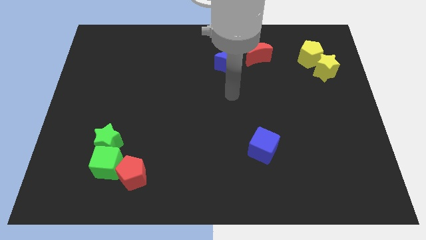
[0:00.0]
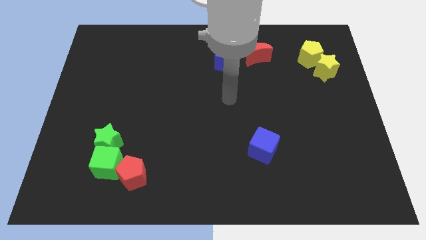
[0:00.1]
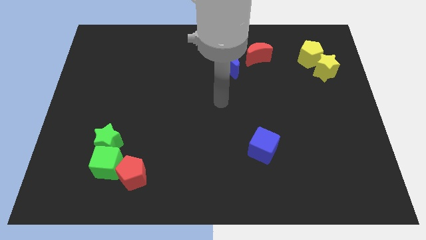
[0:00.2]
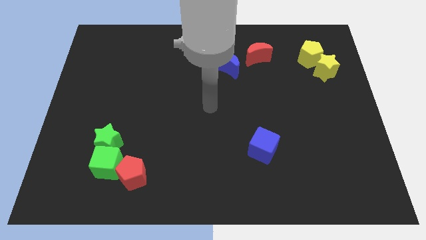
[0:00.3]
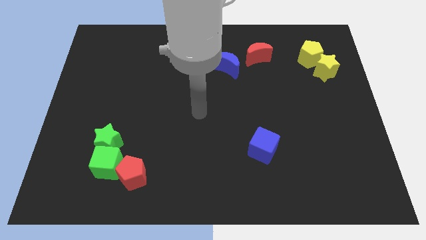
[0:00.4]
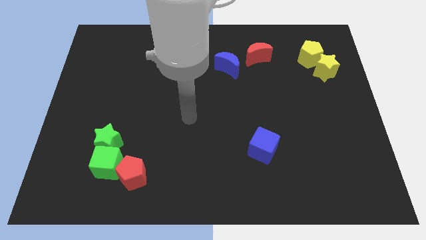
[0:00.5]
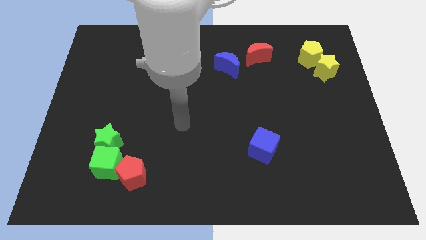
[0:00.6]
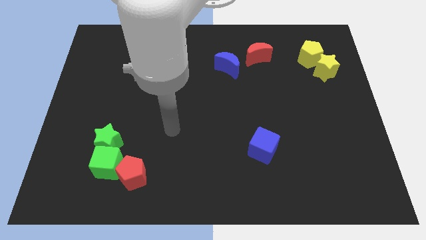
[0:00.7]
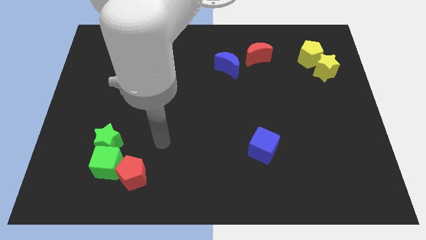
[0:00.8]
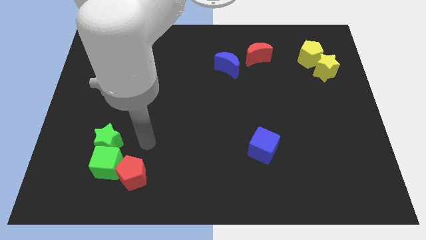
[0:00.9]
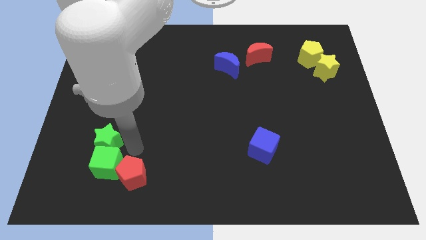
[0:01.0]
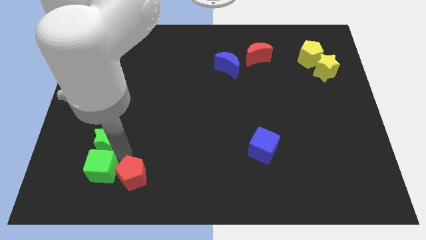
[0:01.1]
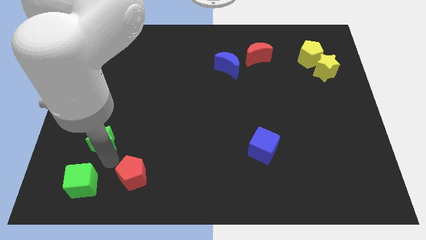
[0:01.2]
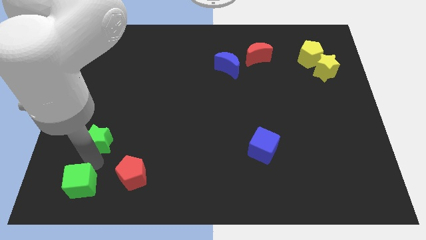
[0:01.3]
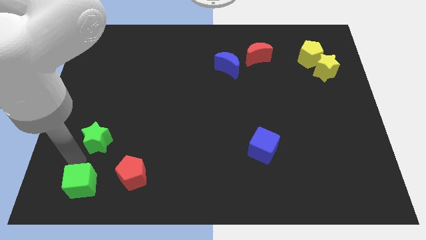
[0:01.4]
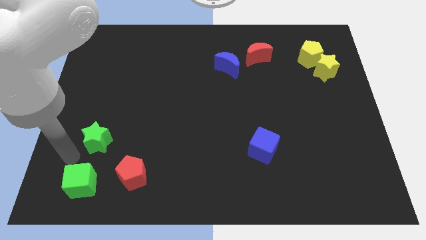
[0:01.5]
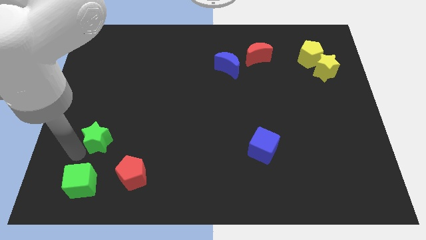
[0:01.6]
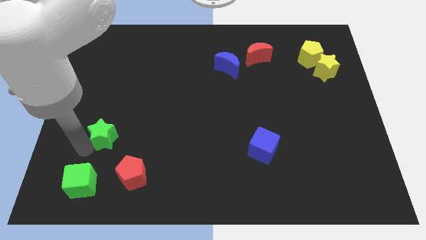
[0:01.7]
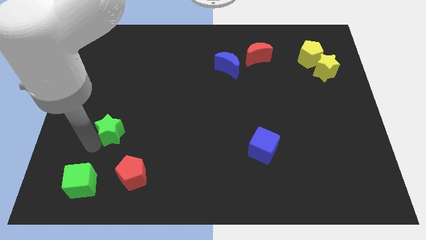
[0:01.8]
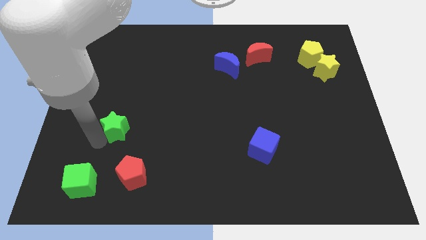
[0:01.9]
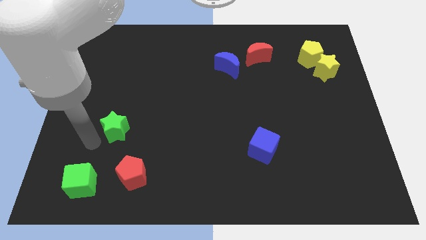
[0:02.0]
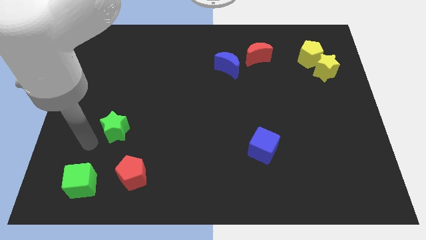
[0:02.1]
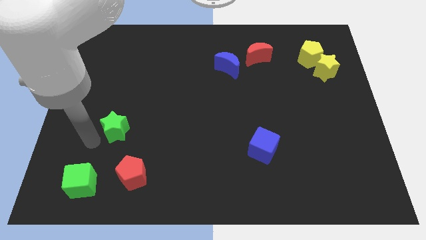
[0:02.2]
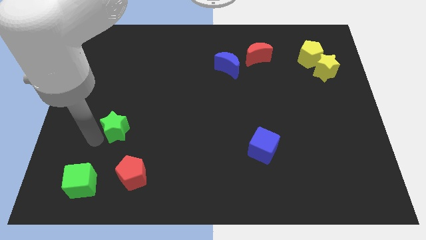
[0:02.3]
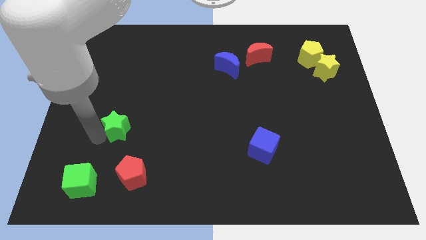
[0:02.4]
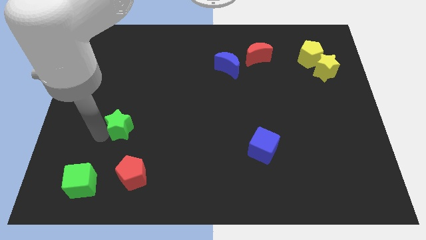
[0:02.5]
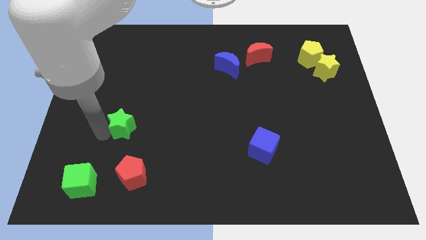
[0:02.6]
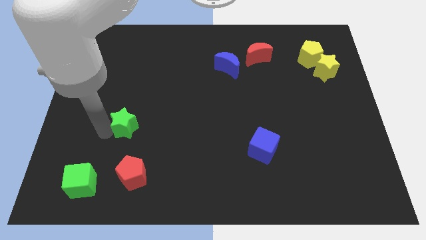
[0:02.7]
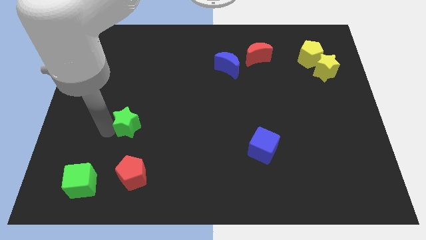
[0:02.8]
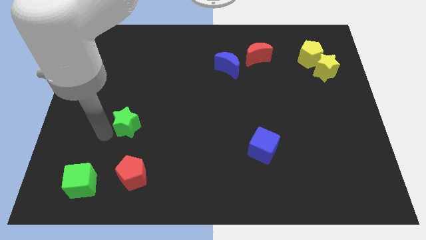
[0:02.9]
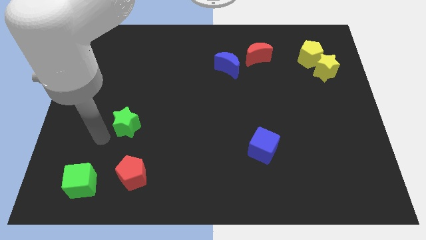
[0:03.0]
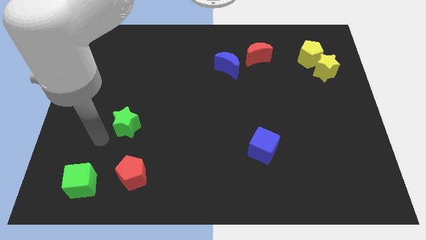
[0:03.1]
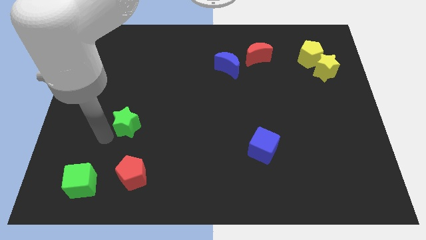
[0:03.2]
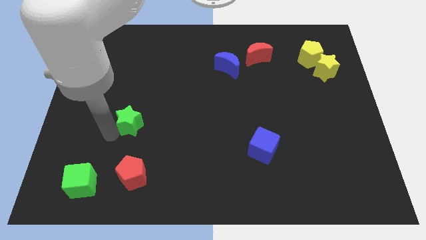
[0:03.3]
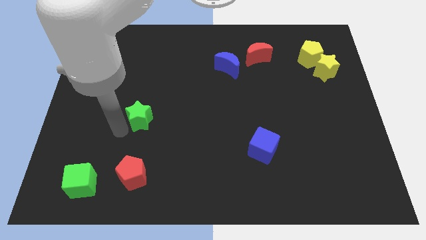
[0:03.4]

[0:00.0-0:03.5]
slide the green star diagonally upwards and right a little

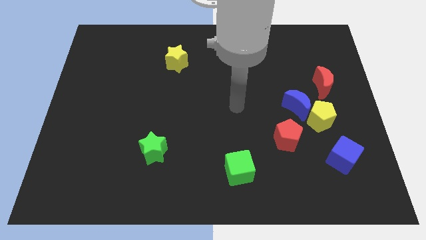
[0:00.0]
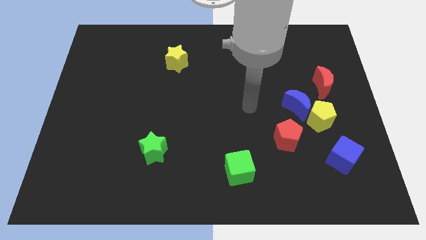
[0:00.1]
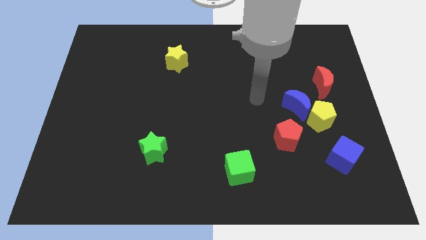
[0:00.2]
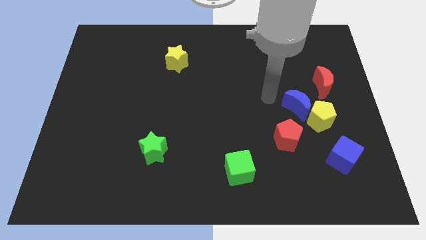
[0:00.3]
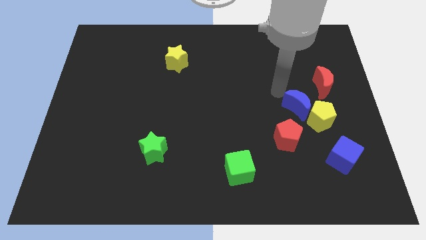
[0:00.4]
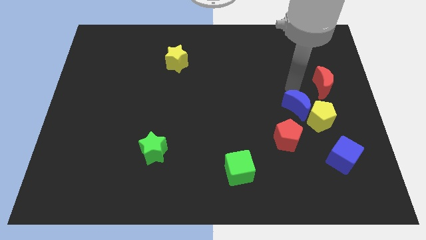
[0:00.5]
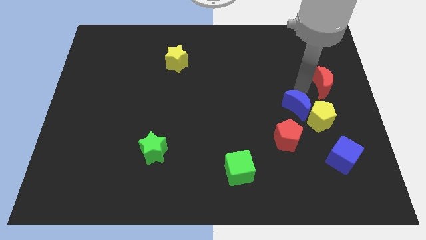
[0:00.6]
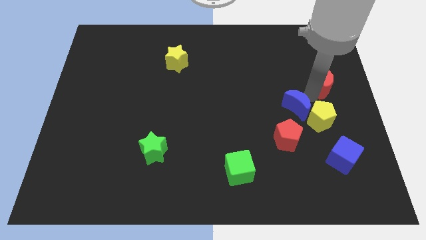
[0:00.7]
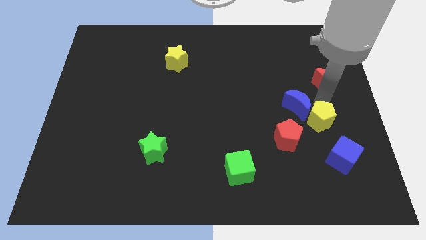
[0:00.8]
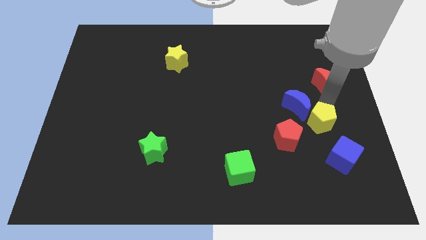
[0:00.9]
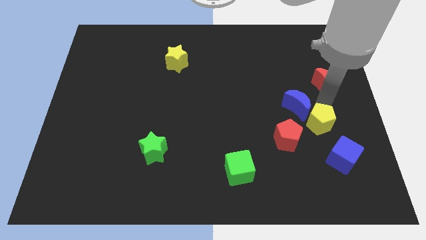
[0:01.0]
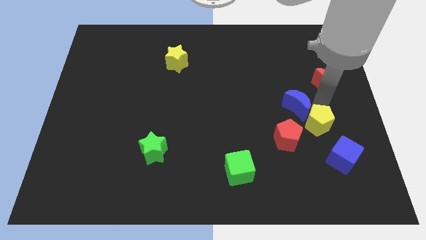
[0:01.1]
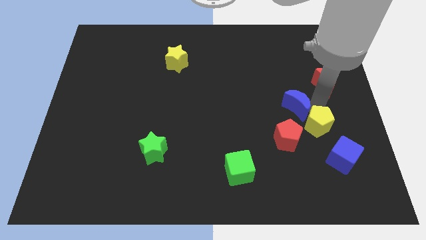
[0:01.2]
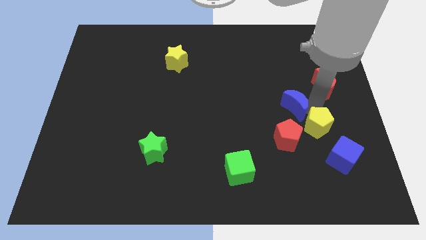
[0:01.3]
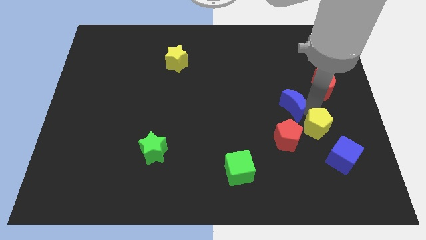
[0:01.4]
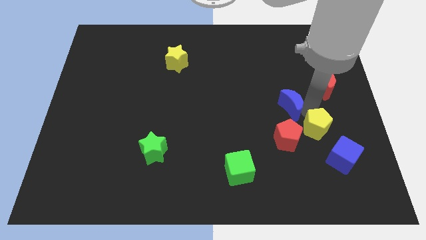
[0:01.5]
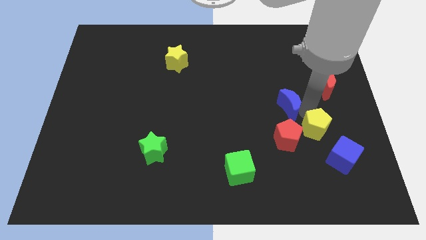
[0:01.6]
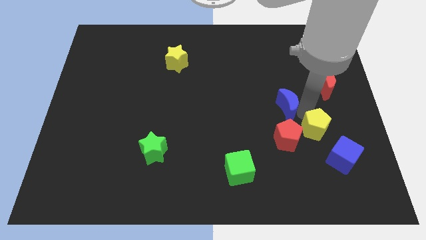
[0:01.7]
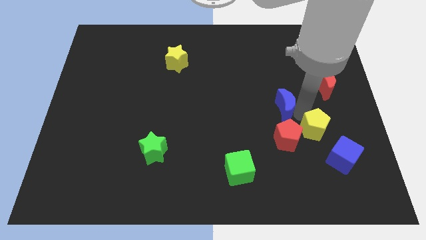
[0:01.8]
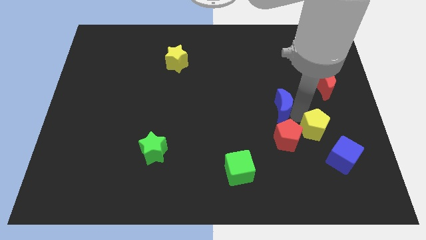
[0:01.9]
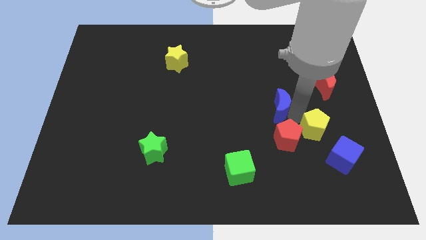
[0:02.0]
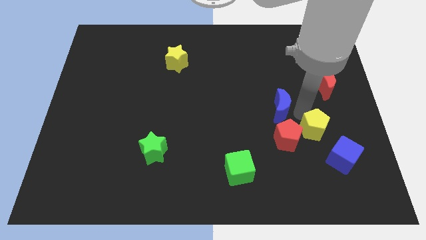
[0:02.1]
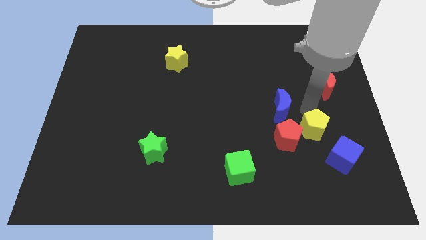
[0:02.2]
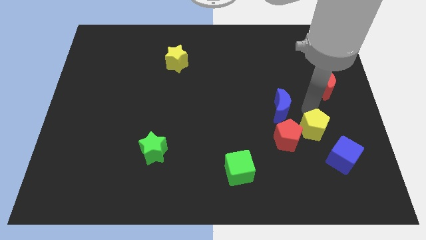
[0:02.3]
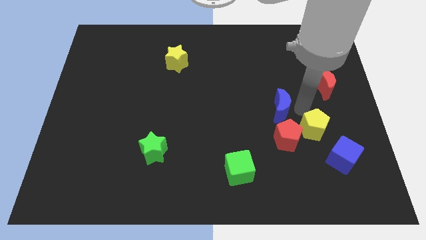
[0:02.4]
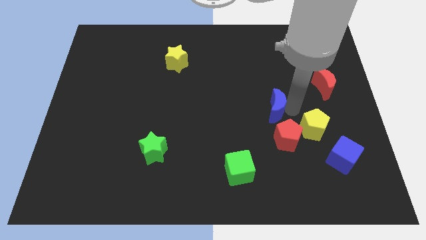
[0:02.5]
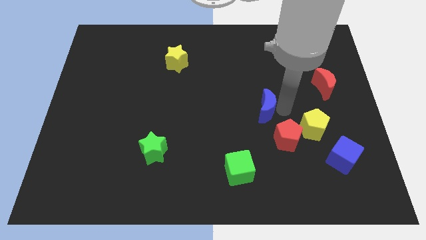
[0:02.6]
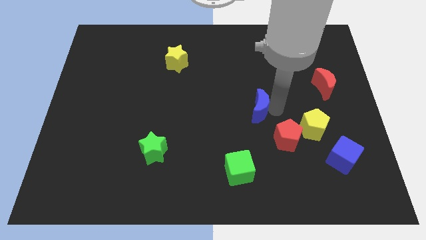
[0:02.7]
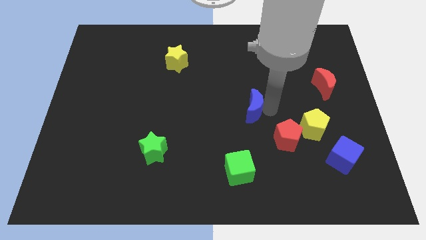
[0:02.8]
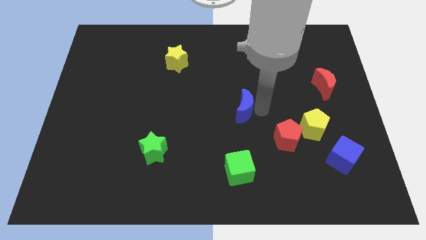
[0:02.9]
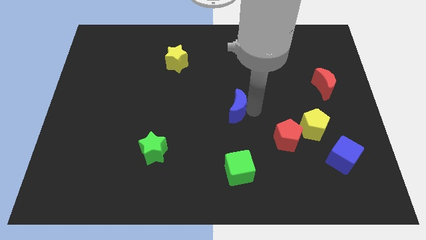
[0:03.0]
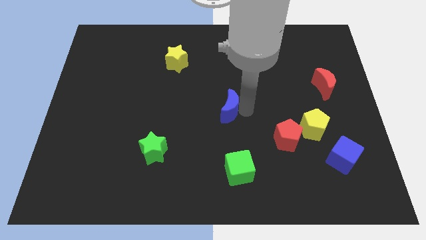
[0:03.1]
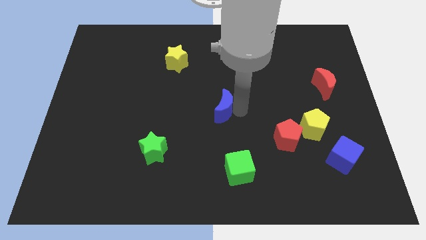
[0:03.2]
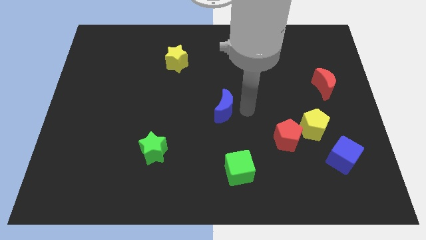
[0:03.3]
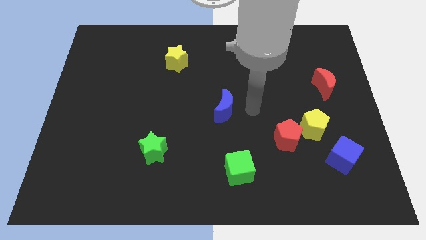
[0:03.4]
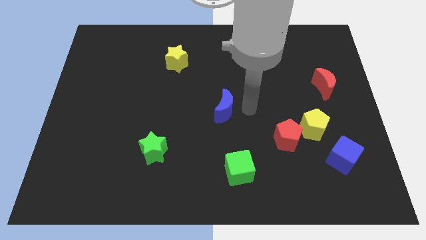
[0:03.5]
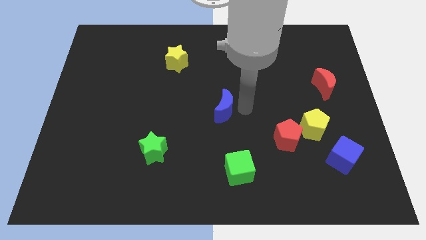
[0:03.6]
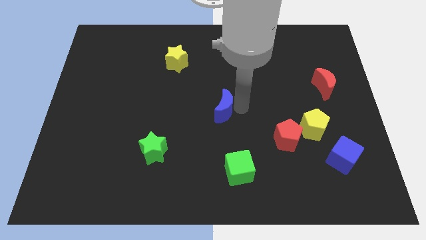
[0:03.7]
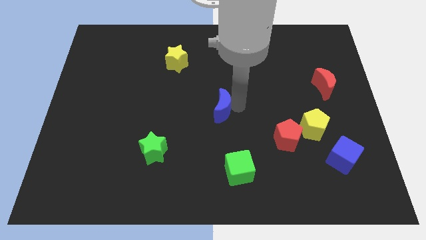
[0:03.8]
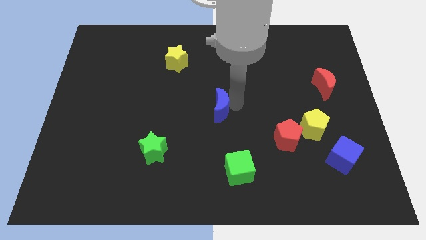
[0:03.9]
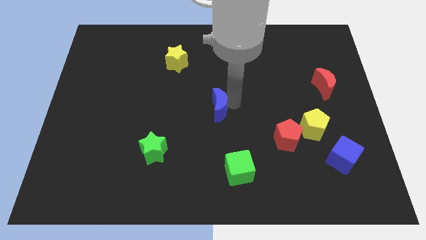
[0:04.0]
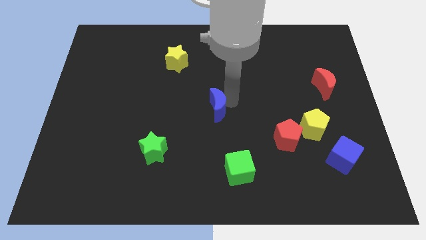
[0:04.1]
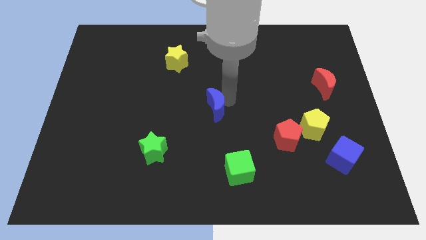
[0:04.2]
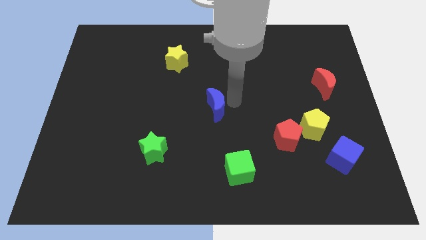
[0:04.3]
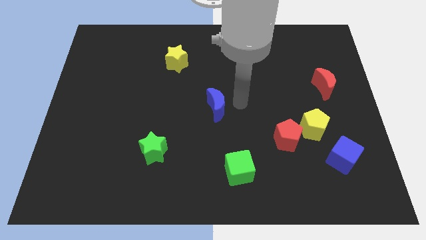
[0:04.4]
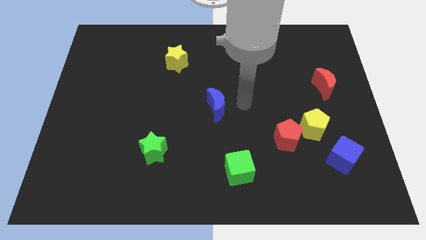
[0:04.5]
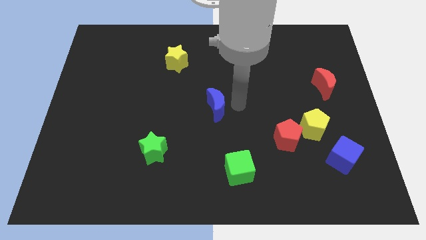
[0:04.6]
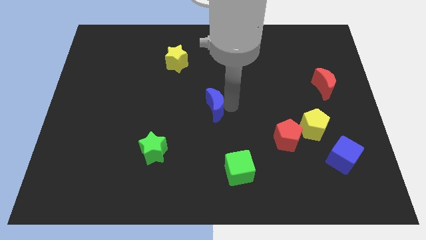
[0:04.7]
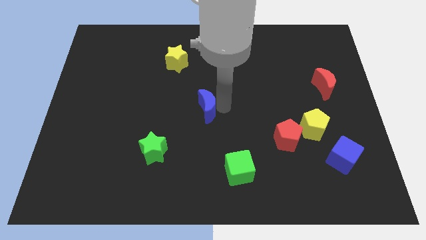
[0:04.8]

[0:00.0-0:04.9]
slide the blue moon to the left
